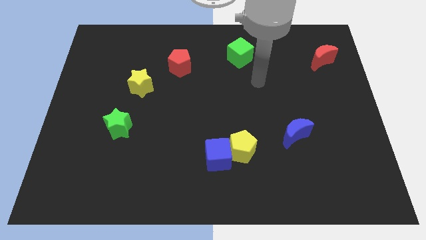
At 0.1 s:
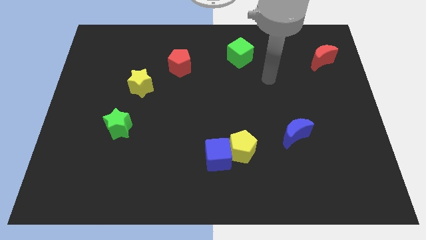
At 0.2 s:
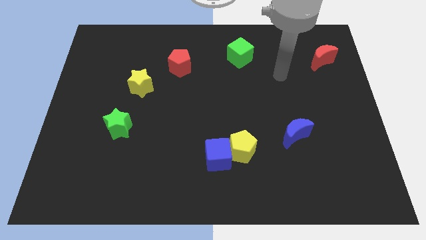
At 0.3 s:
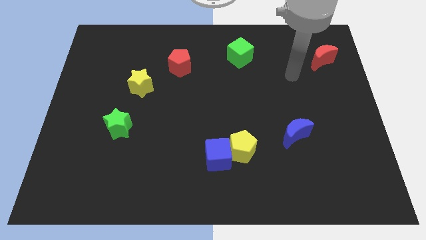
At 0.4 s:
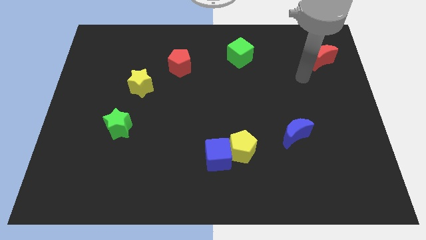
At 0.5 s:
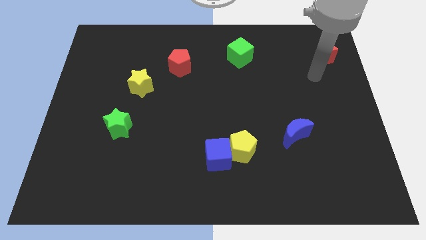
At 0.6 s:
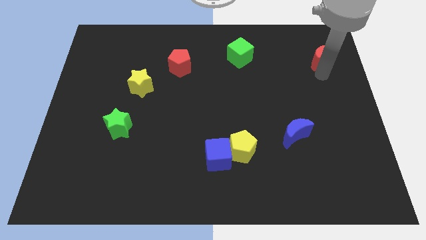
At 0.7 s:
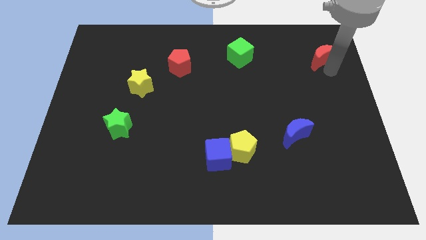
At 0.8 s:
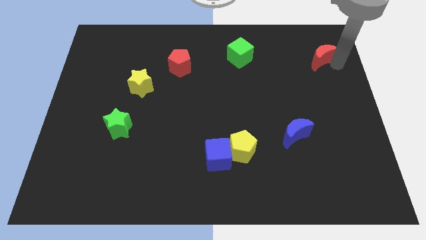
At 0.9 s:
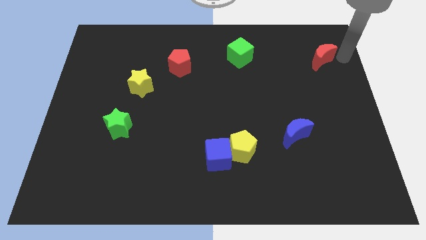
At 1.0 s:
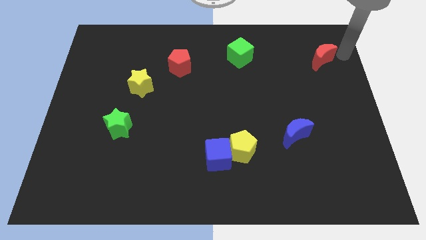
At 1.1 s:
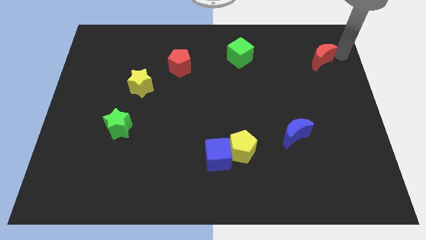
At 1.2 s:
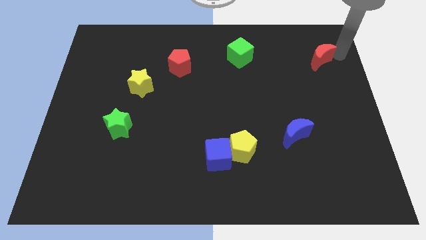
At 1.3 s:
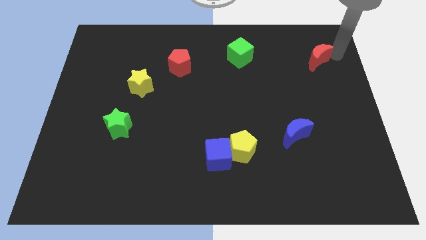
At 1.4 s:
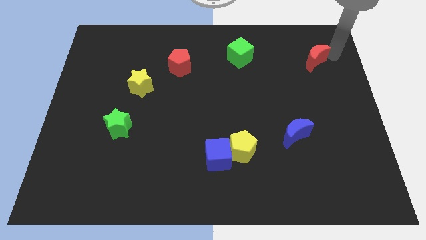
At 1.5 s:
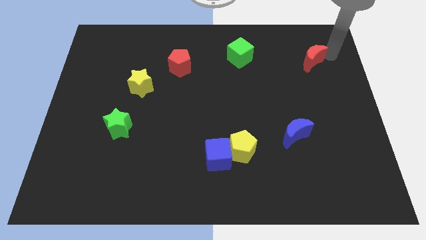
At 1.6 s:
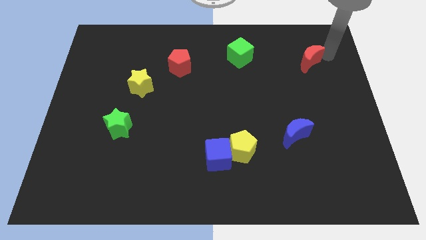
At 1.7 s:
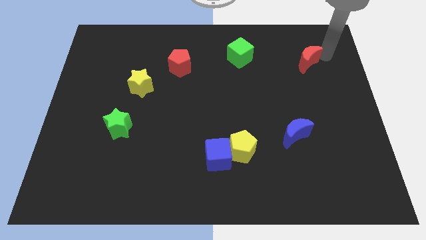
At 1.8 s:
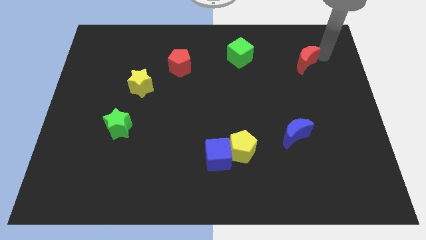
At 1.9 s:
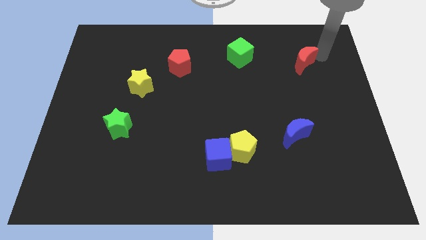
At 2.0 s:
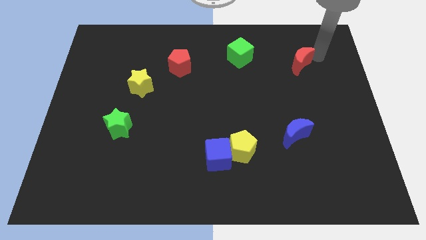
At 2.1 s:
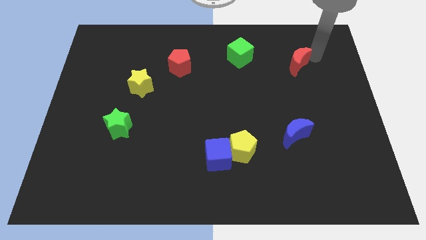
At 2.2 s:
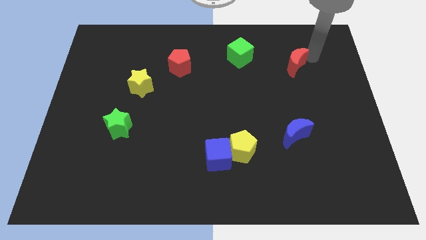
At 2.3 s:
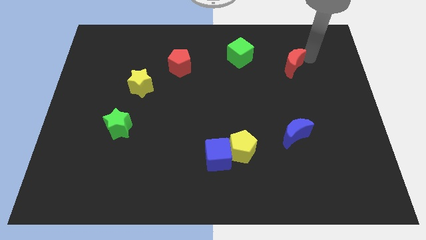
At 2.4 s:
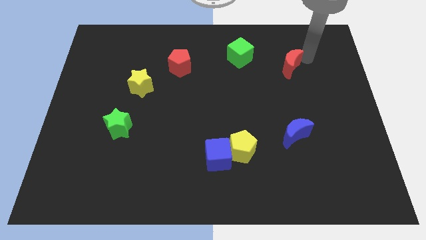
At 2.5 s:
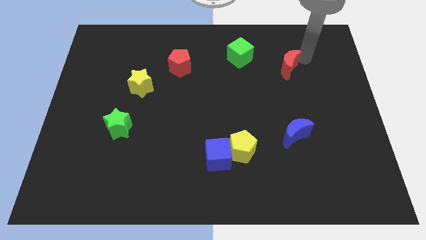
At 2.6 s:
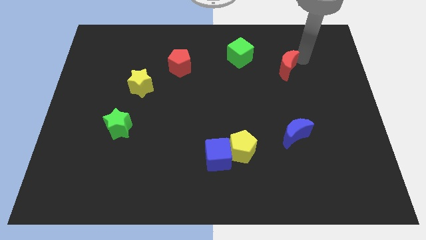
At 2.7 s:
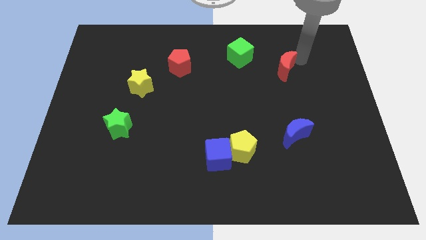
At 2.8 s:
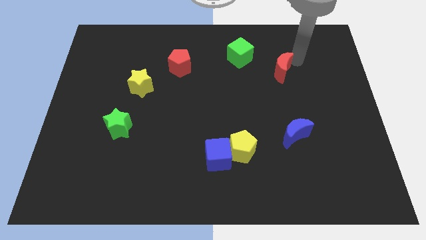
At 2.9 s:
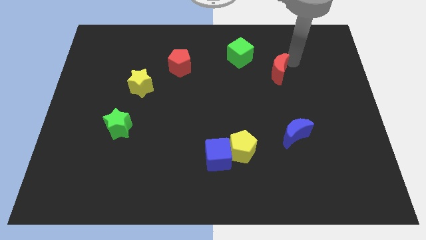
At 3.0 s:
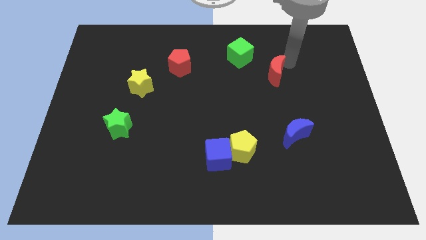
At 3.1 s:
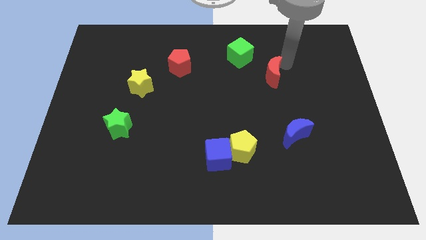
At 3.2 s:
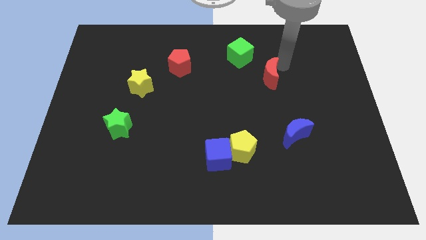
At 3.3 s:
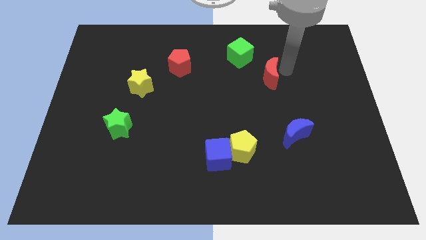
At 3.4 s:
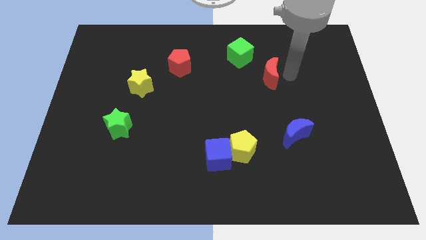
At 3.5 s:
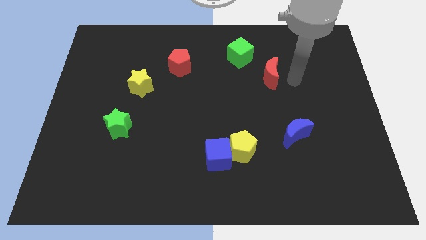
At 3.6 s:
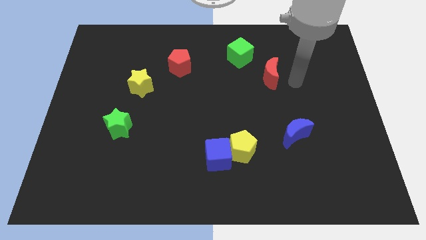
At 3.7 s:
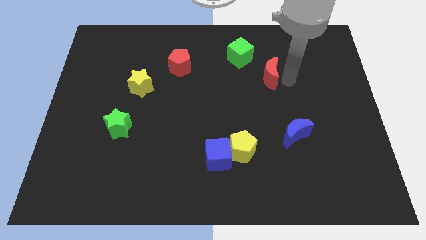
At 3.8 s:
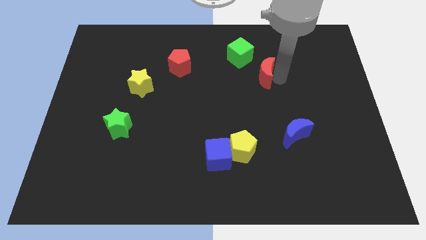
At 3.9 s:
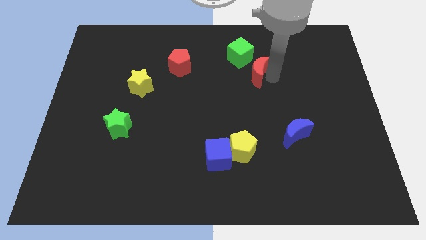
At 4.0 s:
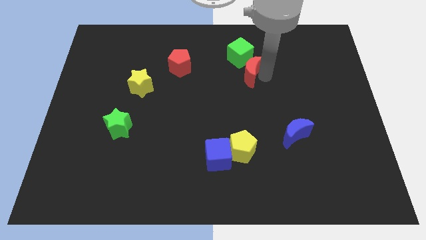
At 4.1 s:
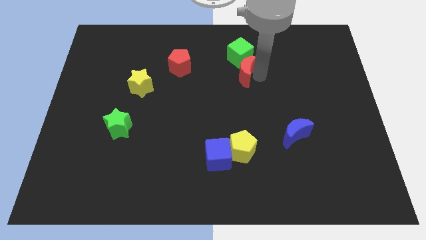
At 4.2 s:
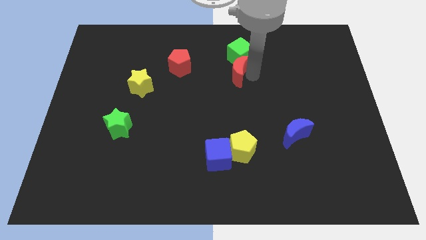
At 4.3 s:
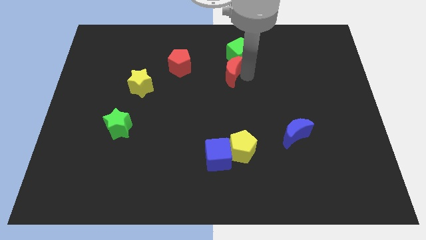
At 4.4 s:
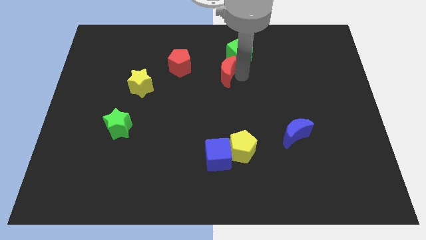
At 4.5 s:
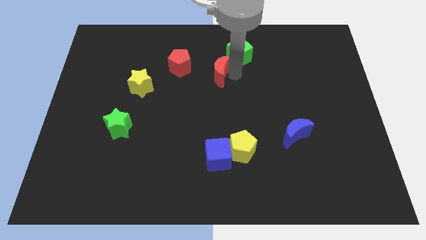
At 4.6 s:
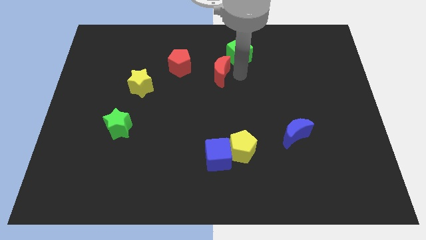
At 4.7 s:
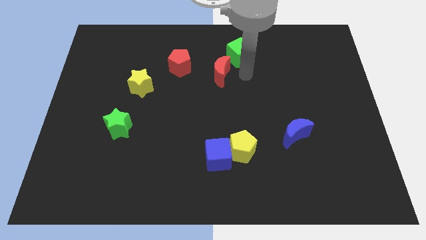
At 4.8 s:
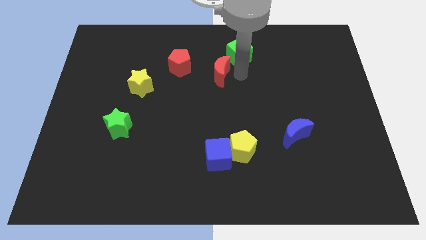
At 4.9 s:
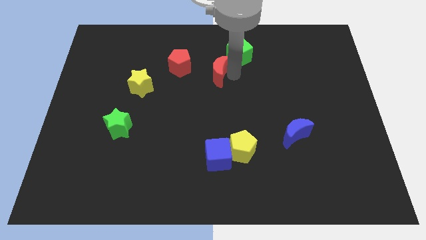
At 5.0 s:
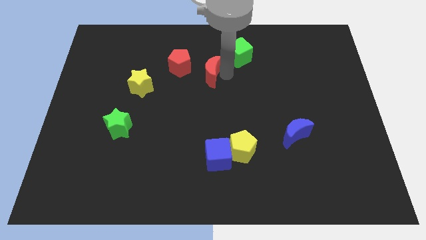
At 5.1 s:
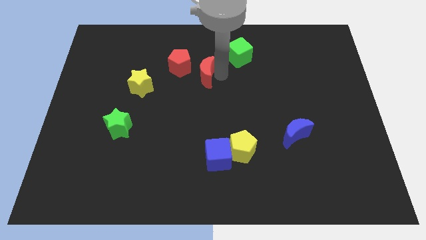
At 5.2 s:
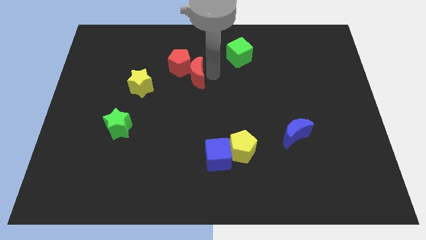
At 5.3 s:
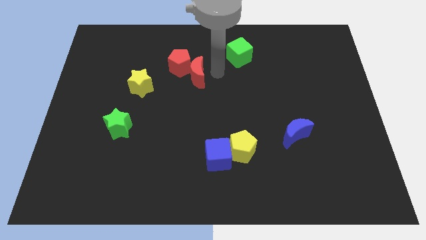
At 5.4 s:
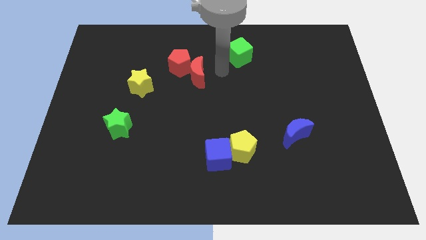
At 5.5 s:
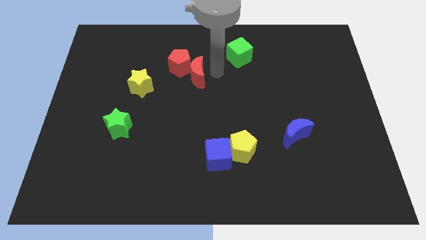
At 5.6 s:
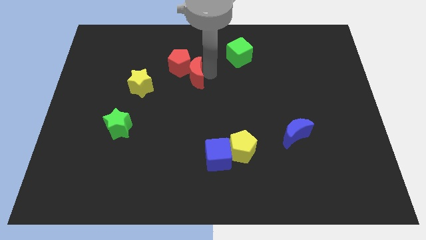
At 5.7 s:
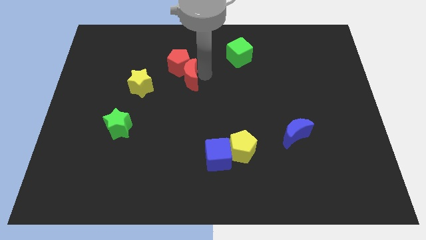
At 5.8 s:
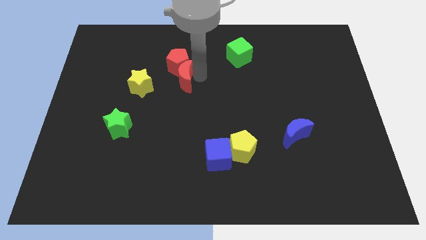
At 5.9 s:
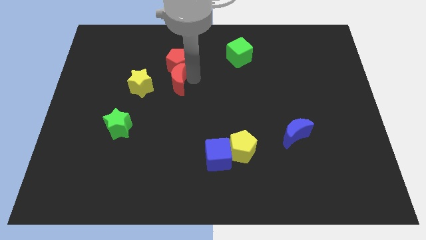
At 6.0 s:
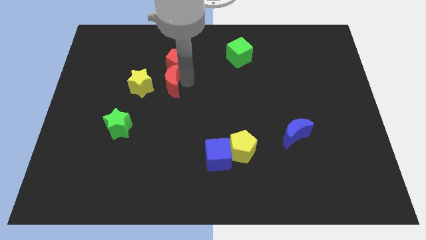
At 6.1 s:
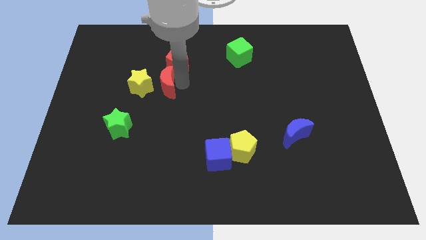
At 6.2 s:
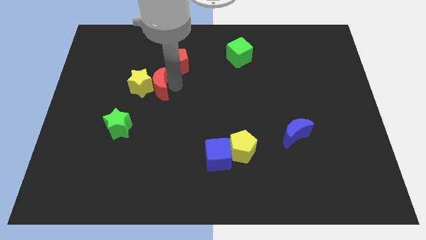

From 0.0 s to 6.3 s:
push the red moon close to the yellow star

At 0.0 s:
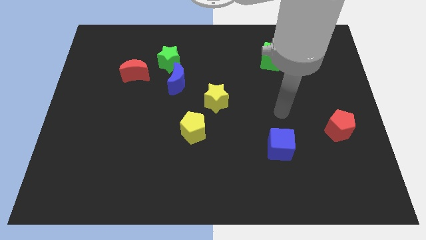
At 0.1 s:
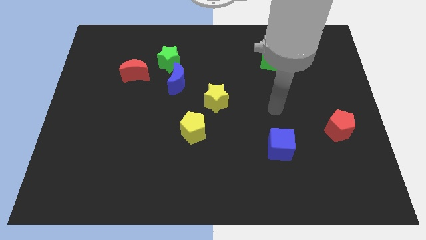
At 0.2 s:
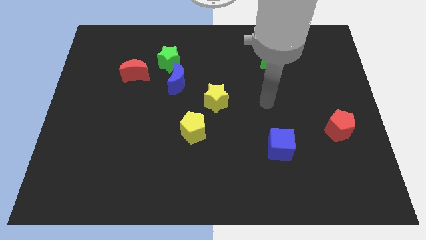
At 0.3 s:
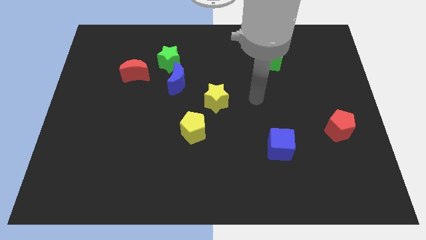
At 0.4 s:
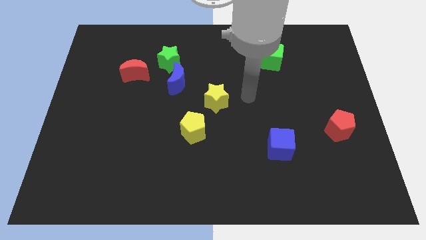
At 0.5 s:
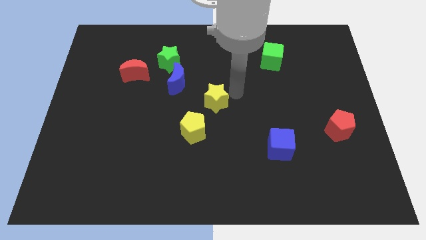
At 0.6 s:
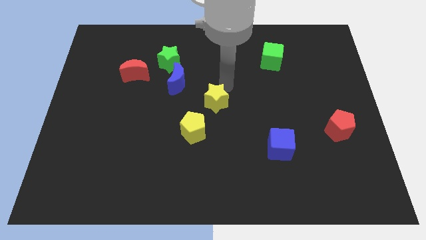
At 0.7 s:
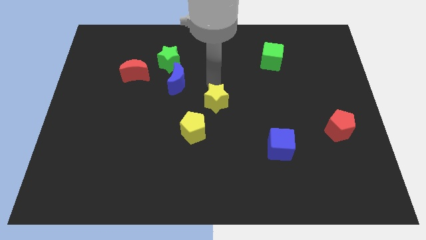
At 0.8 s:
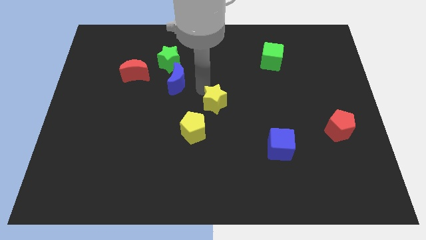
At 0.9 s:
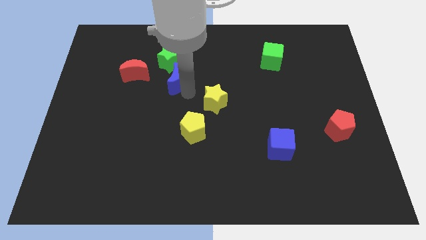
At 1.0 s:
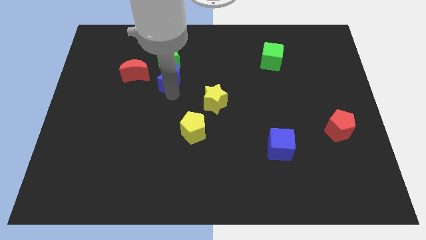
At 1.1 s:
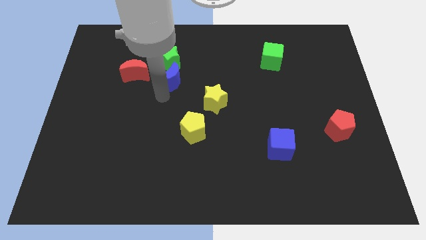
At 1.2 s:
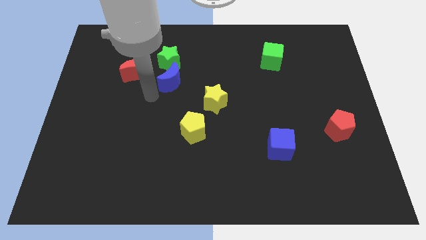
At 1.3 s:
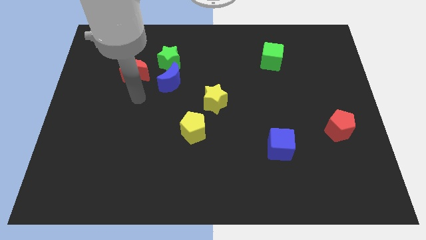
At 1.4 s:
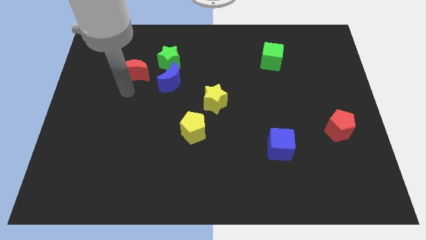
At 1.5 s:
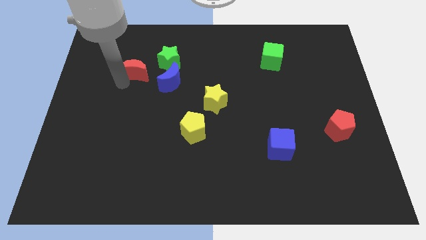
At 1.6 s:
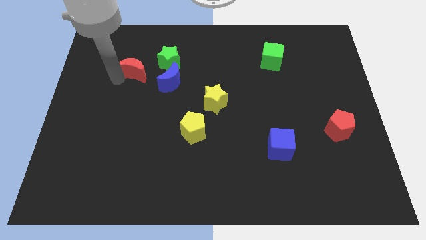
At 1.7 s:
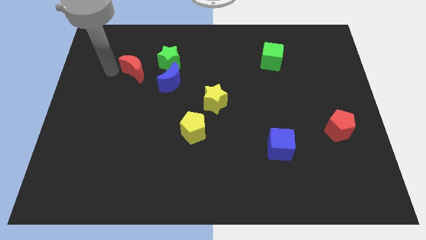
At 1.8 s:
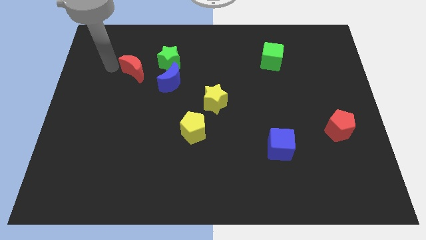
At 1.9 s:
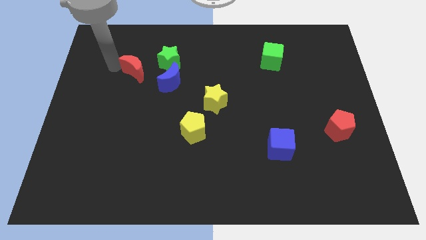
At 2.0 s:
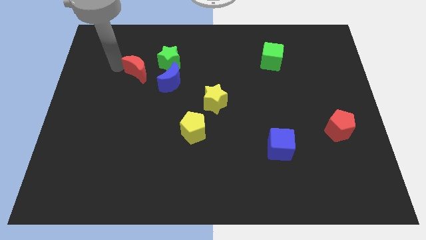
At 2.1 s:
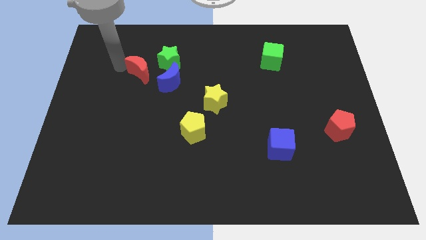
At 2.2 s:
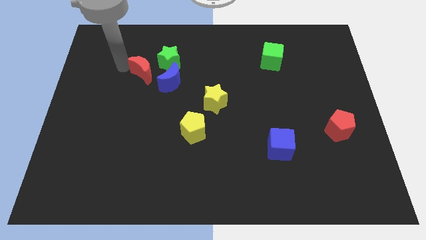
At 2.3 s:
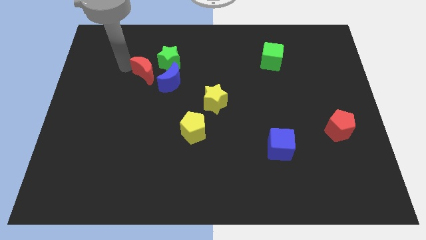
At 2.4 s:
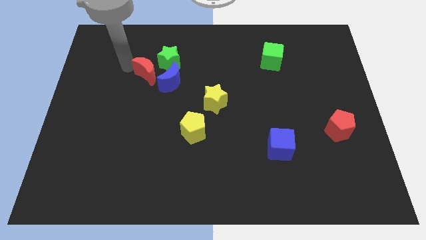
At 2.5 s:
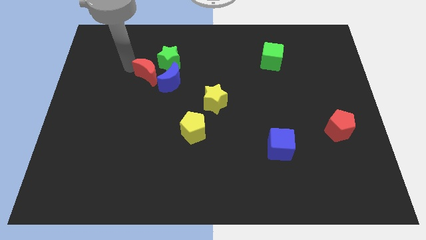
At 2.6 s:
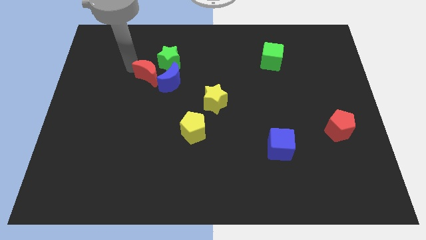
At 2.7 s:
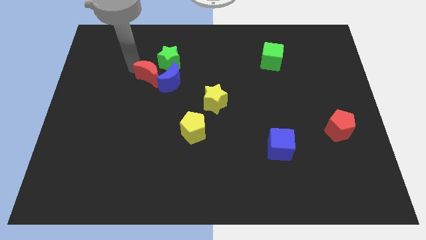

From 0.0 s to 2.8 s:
put the red moon towards the blue moon
